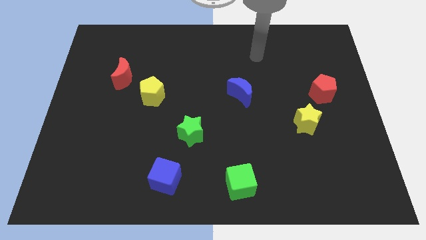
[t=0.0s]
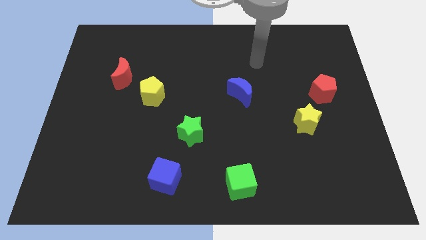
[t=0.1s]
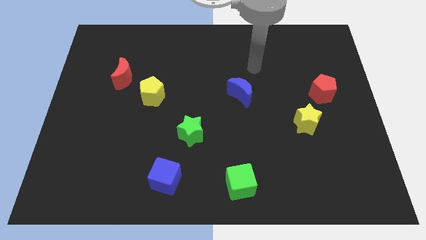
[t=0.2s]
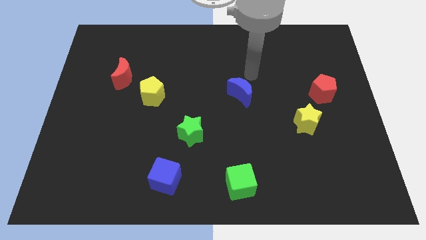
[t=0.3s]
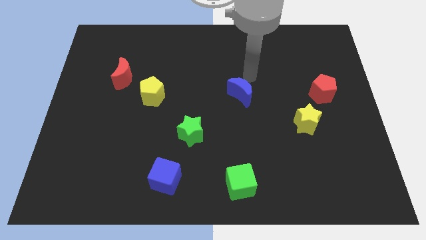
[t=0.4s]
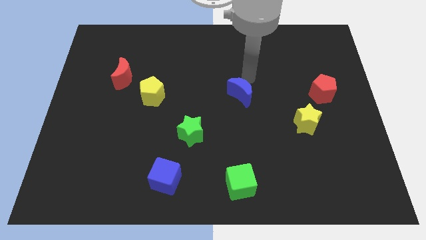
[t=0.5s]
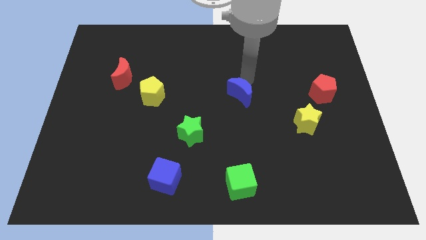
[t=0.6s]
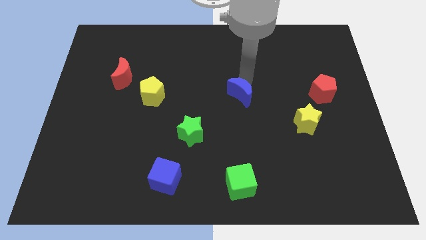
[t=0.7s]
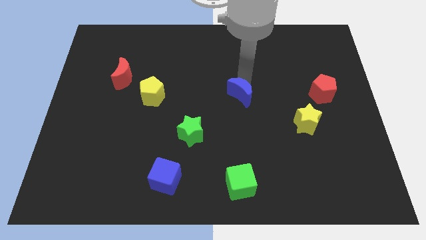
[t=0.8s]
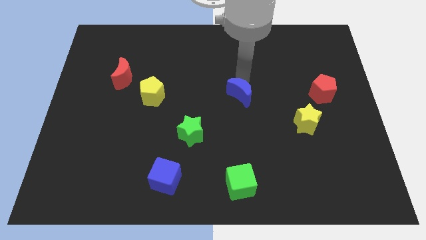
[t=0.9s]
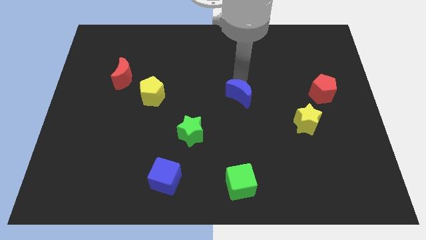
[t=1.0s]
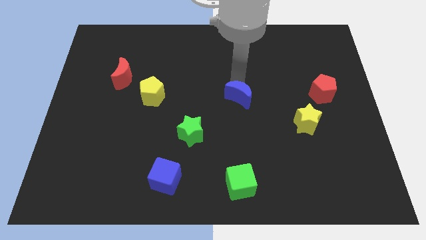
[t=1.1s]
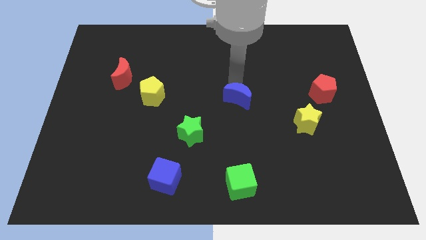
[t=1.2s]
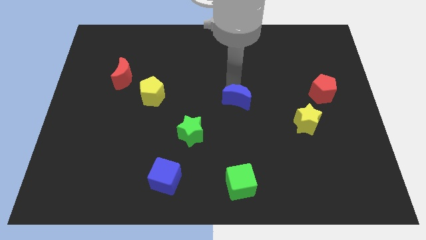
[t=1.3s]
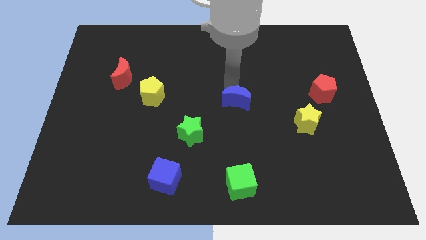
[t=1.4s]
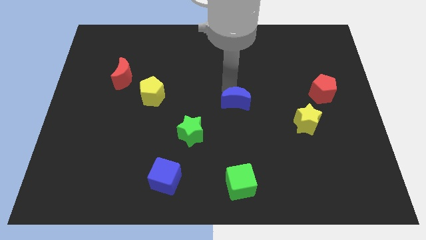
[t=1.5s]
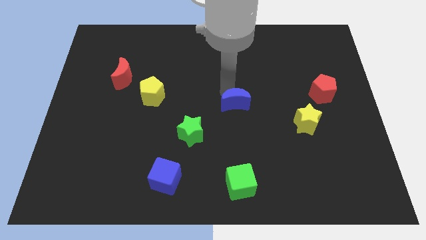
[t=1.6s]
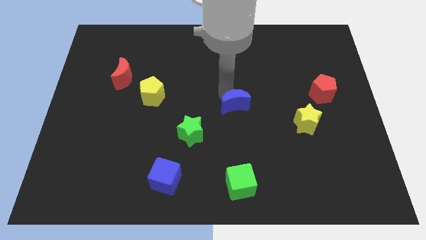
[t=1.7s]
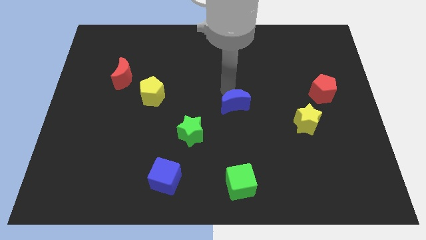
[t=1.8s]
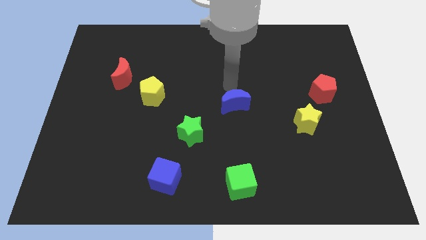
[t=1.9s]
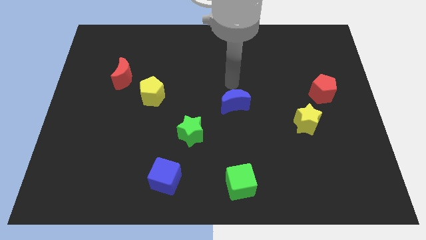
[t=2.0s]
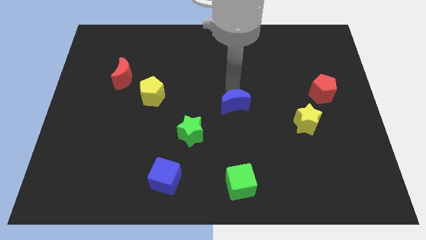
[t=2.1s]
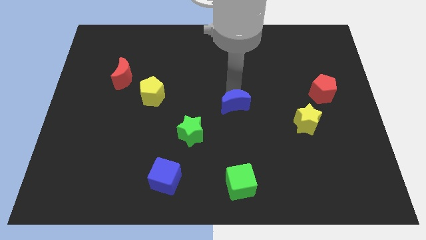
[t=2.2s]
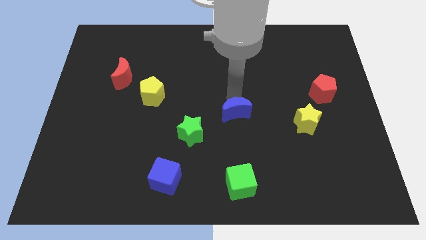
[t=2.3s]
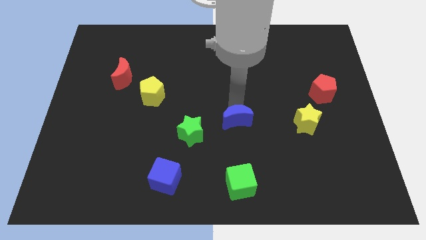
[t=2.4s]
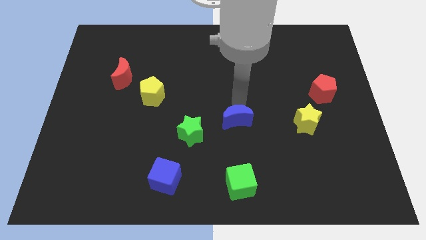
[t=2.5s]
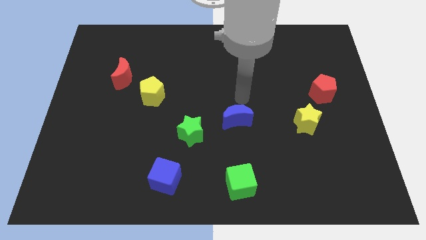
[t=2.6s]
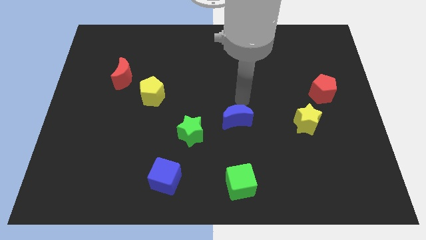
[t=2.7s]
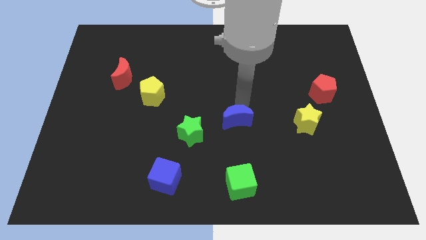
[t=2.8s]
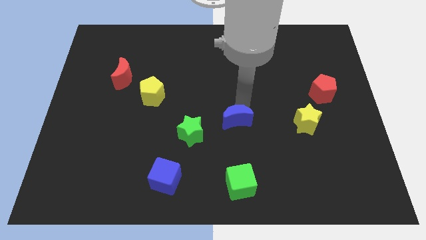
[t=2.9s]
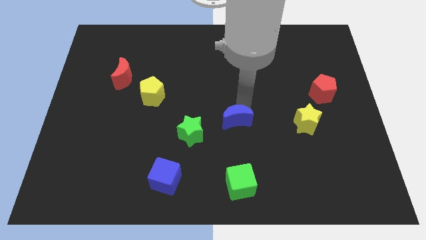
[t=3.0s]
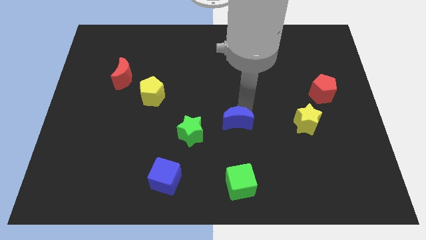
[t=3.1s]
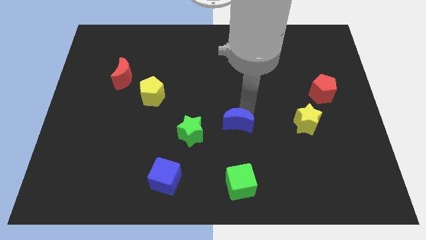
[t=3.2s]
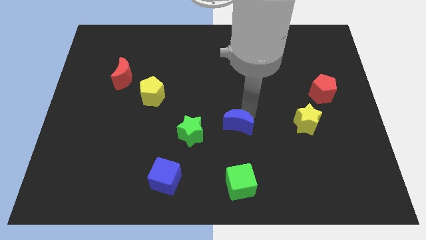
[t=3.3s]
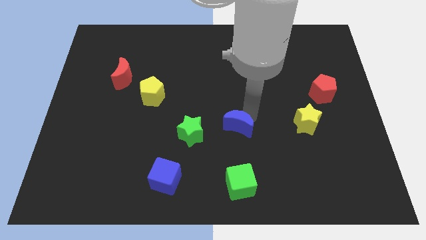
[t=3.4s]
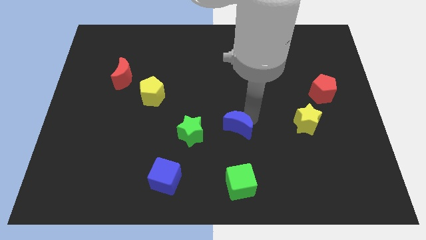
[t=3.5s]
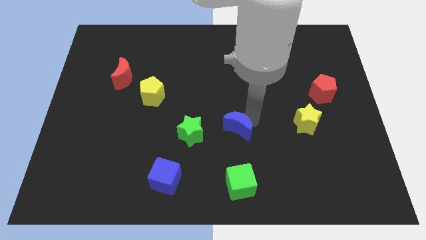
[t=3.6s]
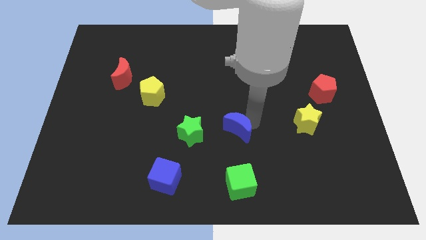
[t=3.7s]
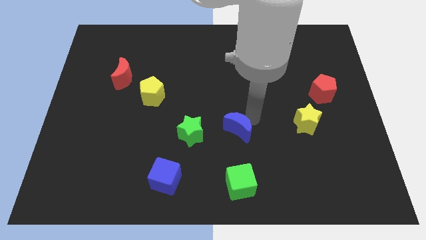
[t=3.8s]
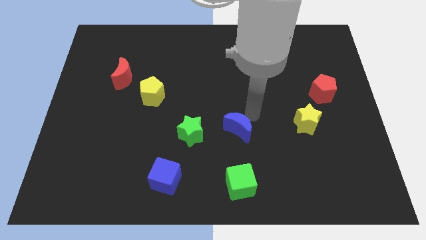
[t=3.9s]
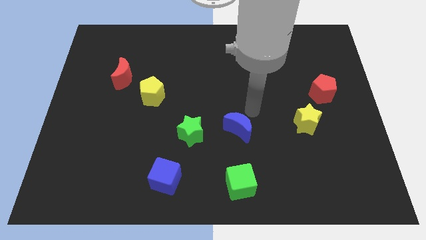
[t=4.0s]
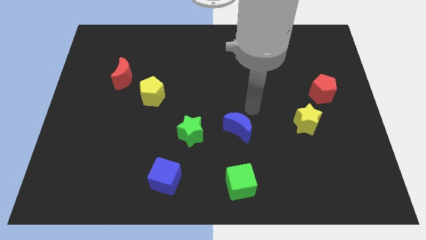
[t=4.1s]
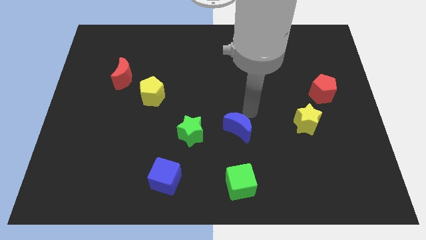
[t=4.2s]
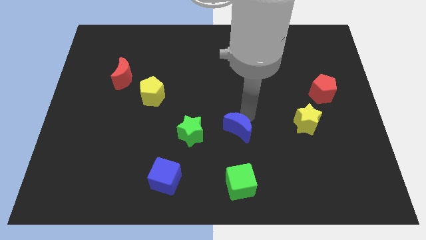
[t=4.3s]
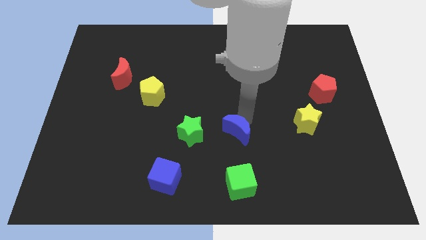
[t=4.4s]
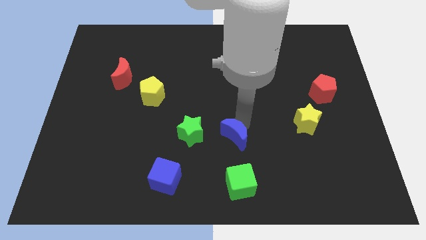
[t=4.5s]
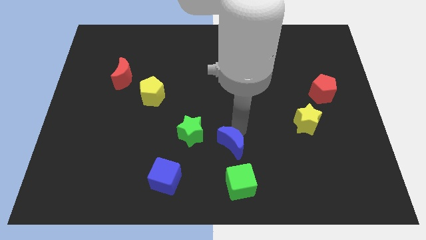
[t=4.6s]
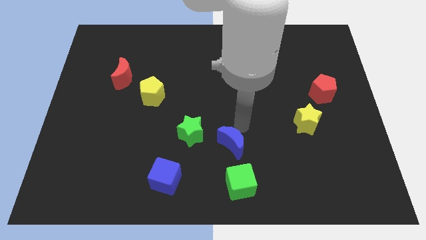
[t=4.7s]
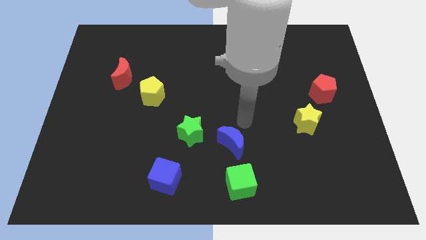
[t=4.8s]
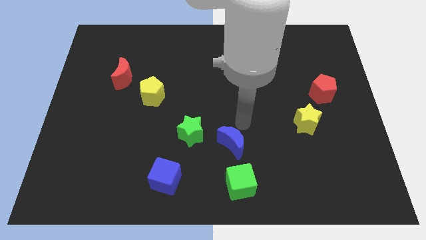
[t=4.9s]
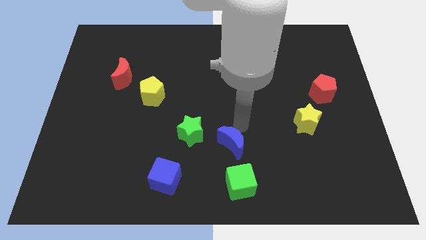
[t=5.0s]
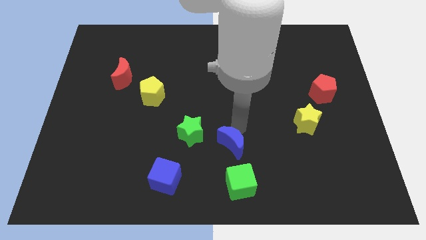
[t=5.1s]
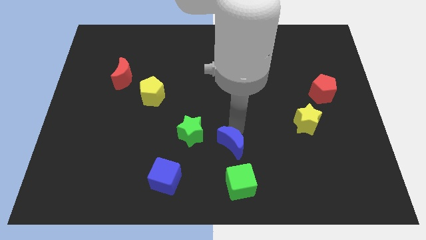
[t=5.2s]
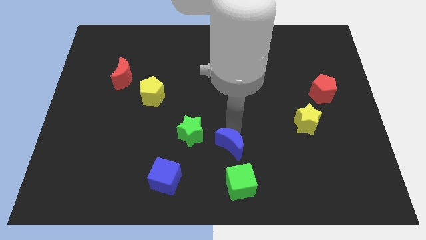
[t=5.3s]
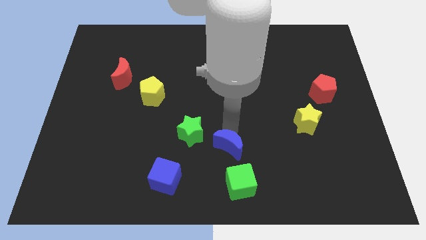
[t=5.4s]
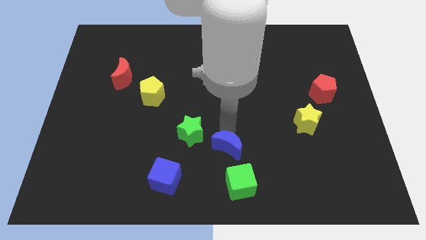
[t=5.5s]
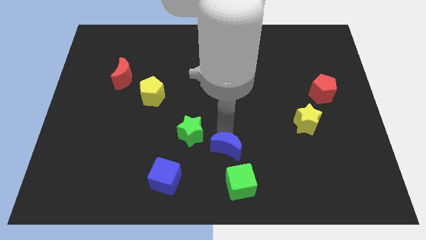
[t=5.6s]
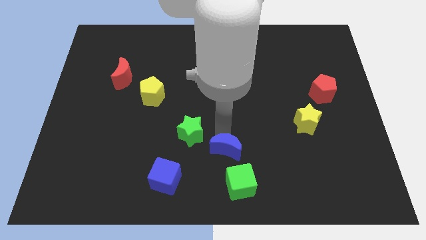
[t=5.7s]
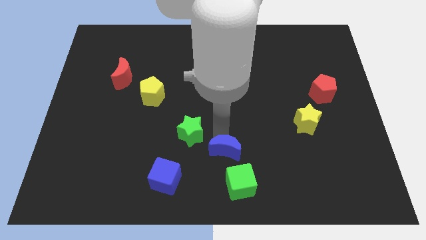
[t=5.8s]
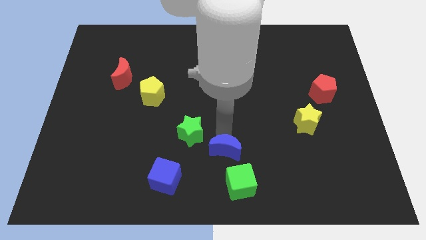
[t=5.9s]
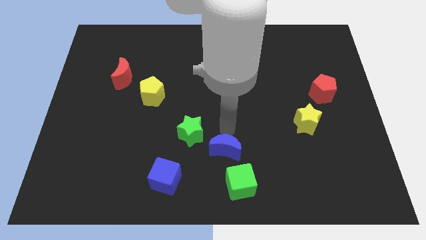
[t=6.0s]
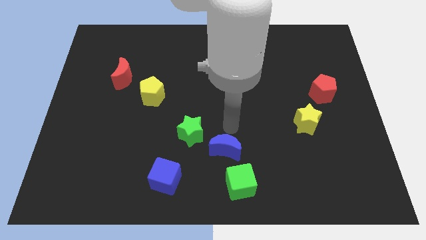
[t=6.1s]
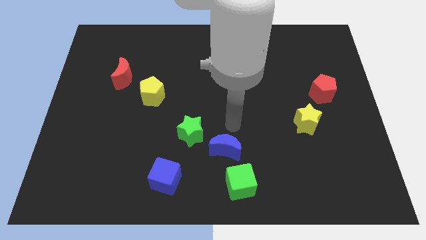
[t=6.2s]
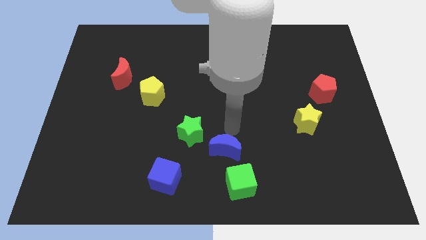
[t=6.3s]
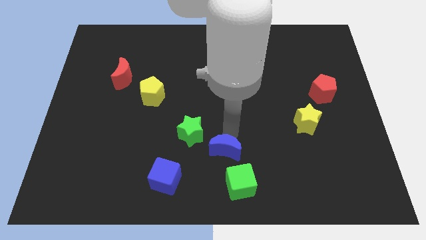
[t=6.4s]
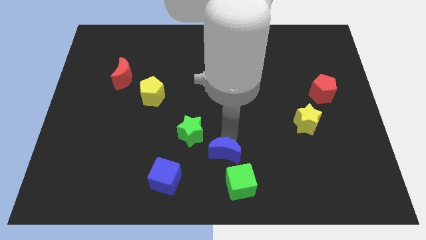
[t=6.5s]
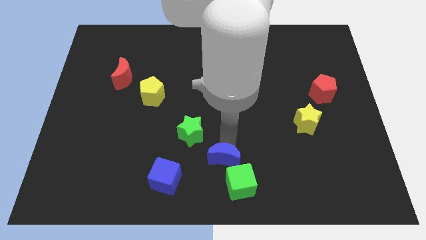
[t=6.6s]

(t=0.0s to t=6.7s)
push the blue moon to the bottom side
